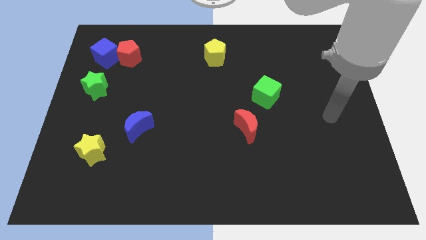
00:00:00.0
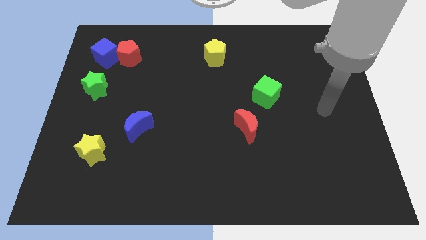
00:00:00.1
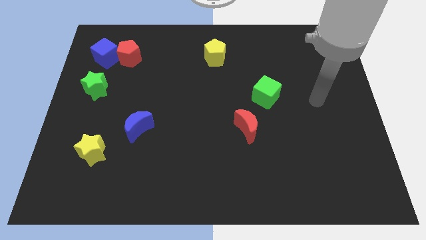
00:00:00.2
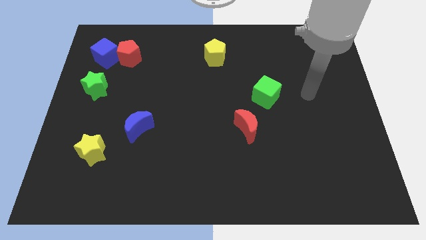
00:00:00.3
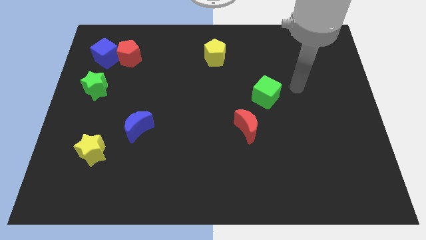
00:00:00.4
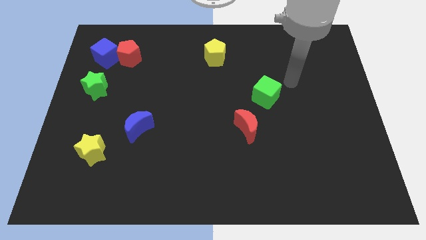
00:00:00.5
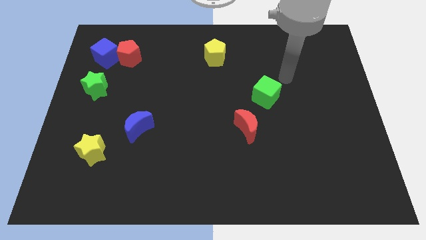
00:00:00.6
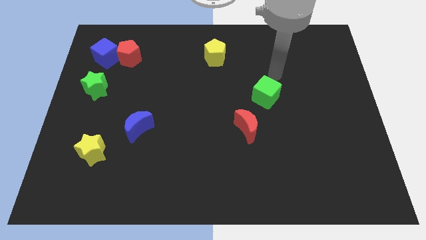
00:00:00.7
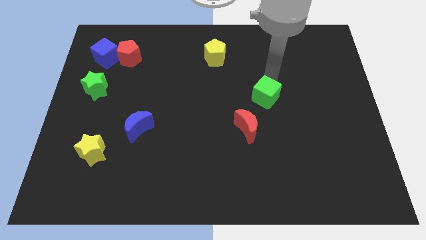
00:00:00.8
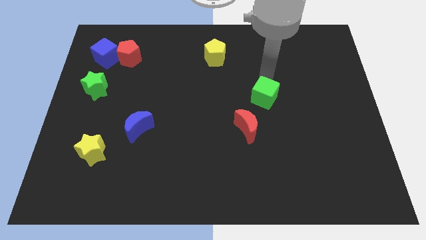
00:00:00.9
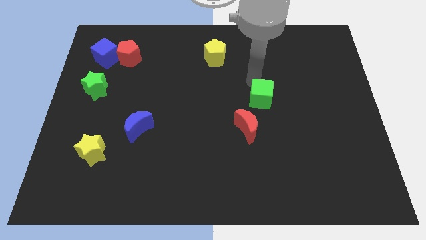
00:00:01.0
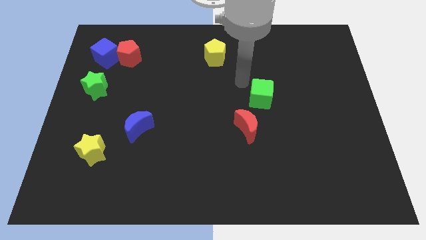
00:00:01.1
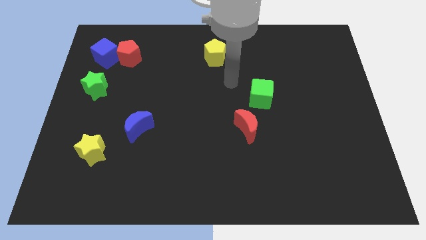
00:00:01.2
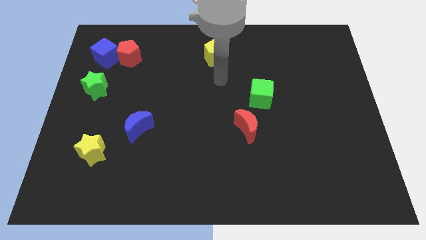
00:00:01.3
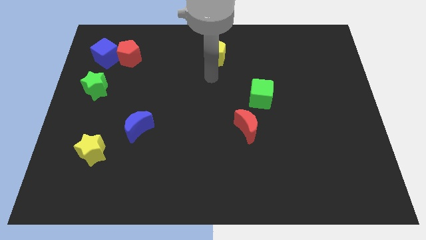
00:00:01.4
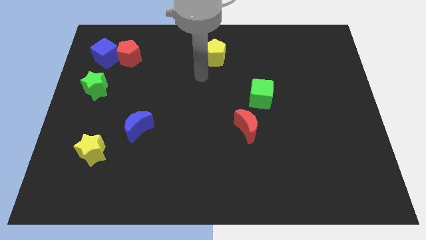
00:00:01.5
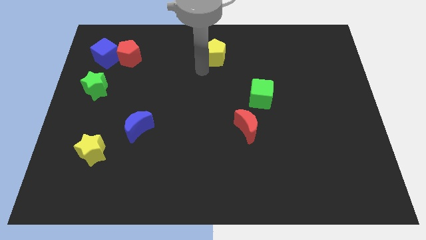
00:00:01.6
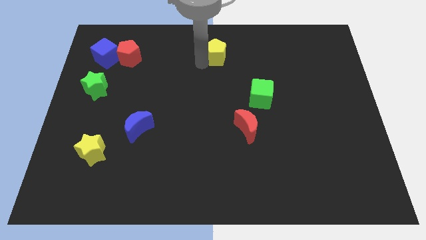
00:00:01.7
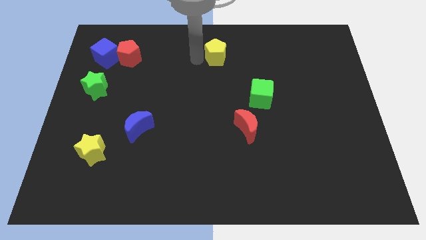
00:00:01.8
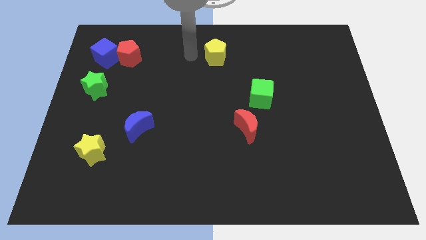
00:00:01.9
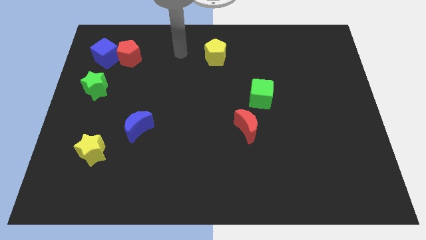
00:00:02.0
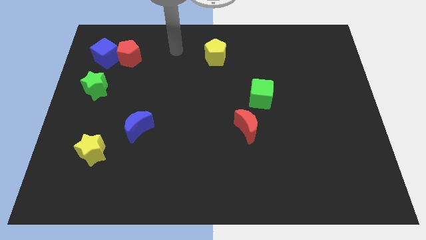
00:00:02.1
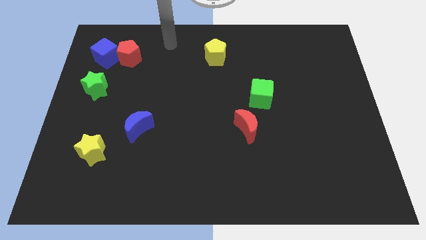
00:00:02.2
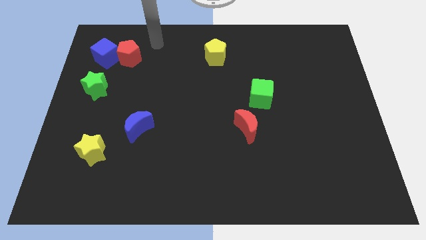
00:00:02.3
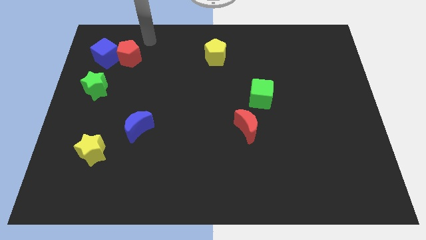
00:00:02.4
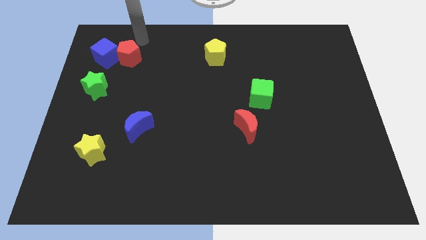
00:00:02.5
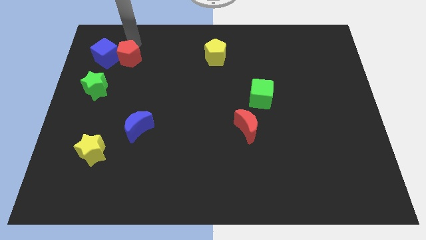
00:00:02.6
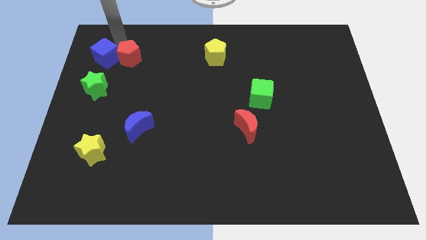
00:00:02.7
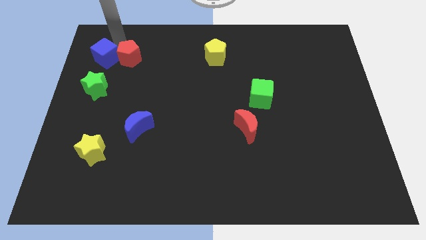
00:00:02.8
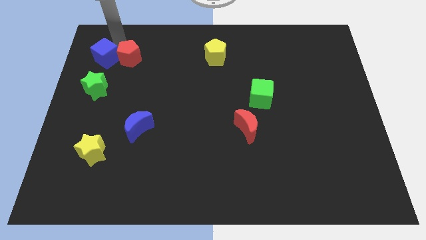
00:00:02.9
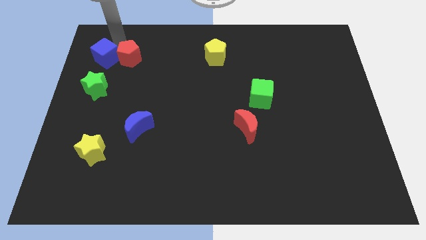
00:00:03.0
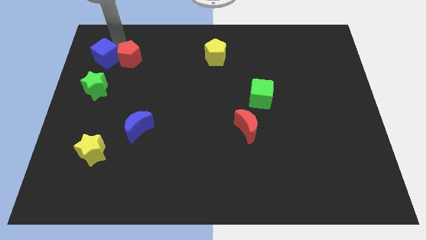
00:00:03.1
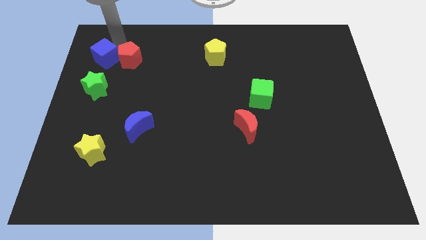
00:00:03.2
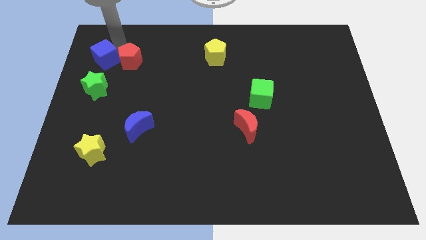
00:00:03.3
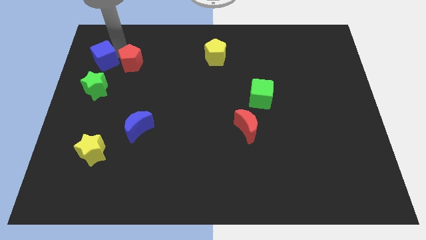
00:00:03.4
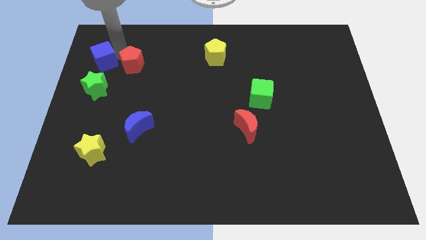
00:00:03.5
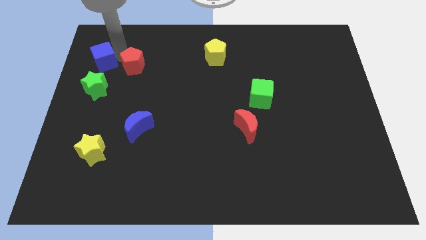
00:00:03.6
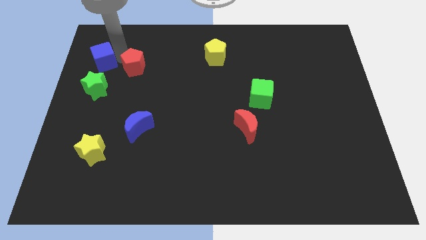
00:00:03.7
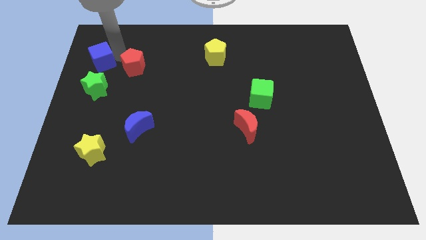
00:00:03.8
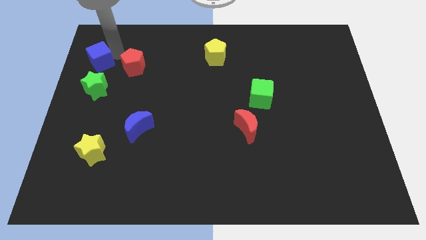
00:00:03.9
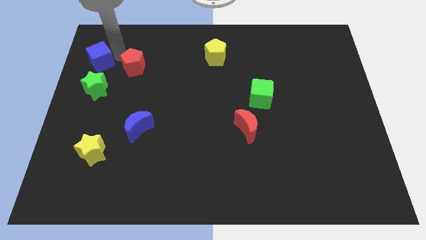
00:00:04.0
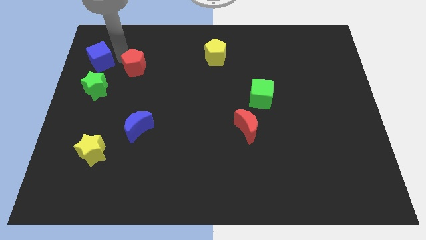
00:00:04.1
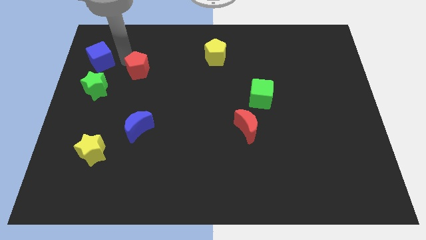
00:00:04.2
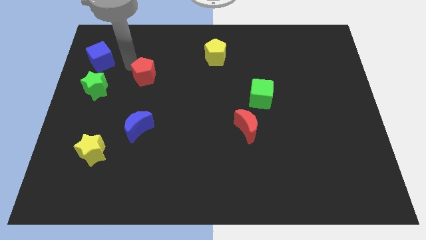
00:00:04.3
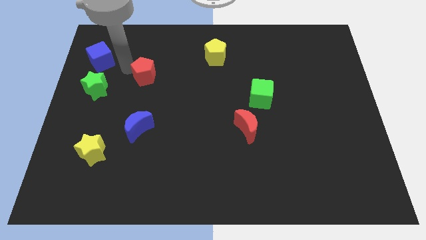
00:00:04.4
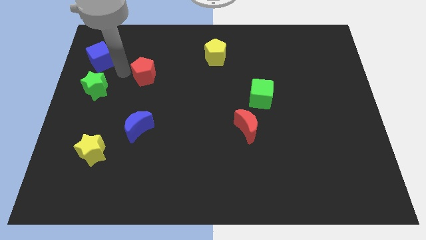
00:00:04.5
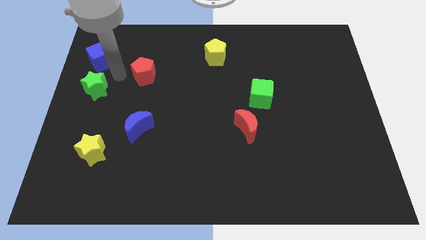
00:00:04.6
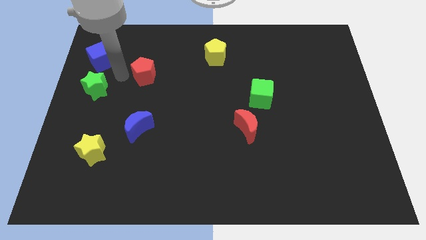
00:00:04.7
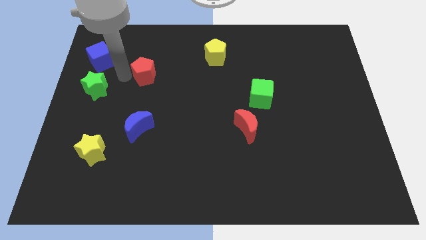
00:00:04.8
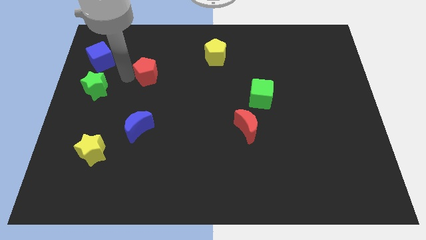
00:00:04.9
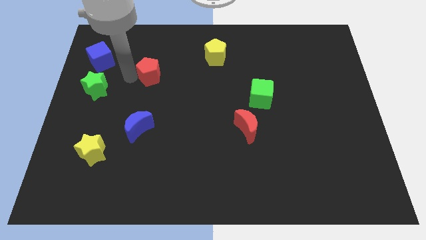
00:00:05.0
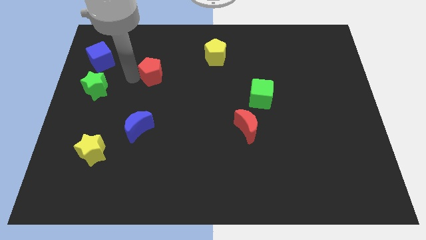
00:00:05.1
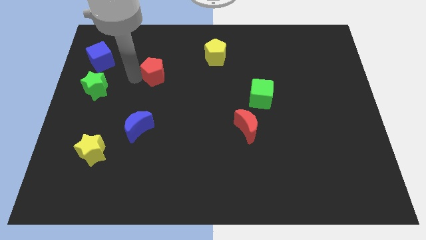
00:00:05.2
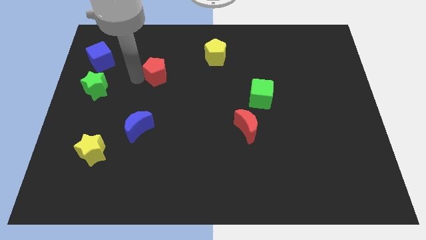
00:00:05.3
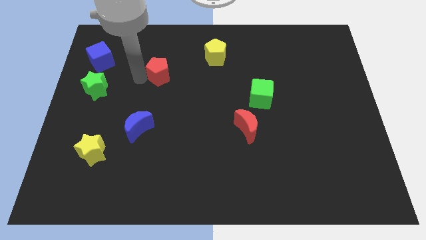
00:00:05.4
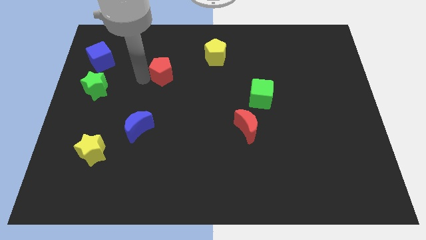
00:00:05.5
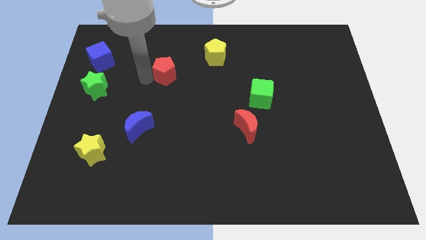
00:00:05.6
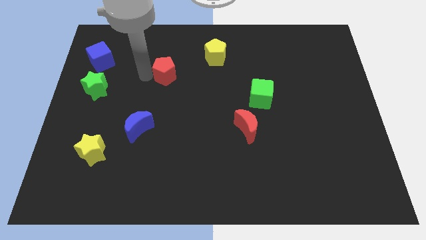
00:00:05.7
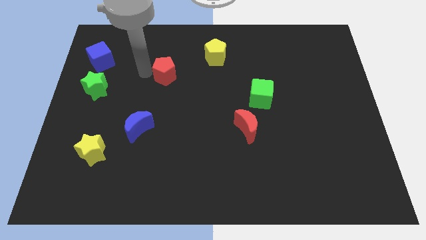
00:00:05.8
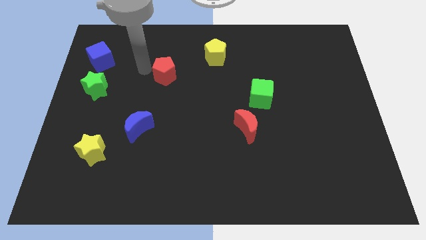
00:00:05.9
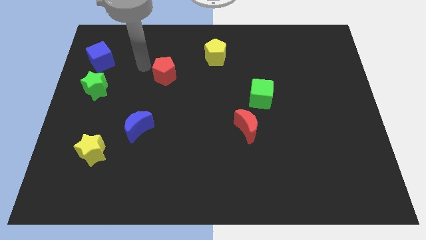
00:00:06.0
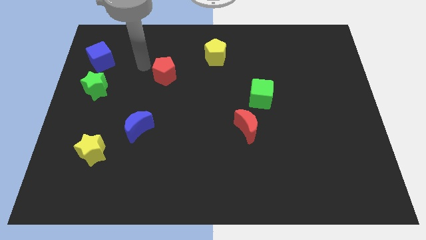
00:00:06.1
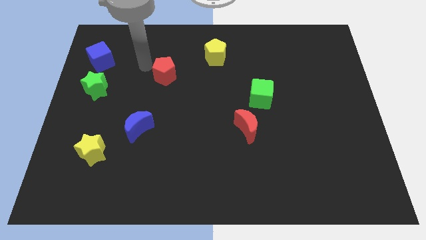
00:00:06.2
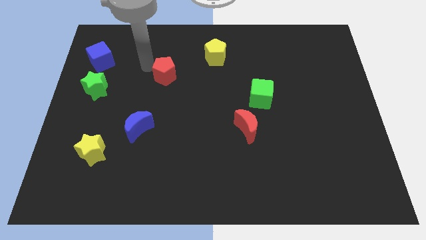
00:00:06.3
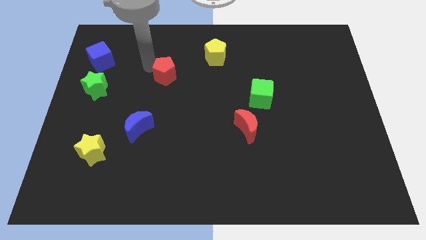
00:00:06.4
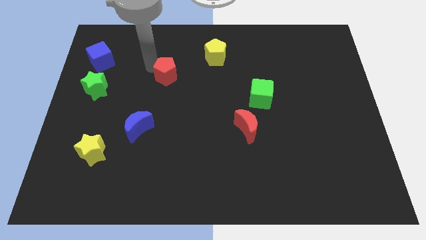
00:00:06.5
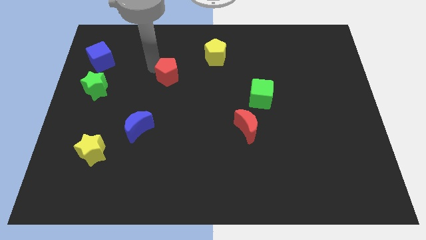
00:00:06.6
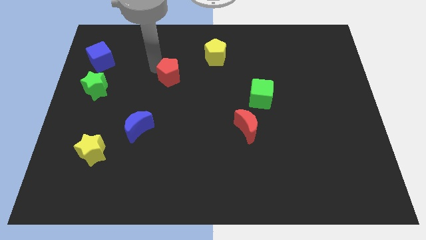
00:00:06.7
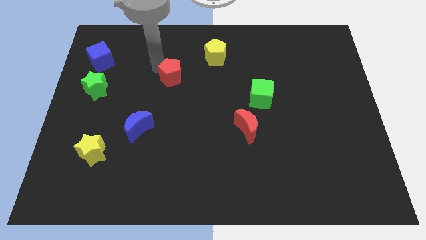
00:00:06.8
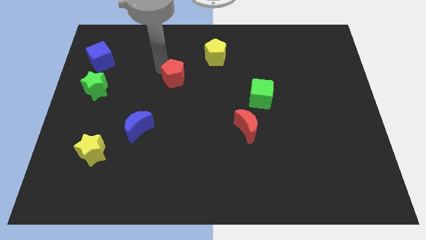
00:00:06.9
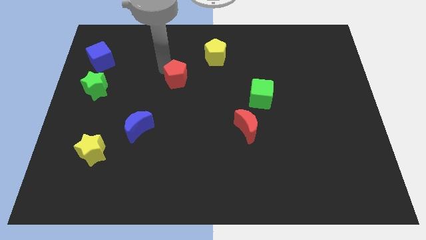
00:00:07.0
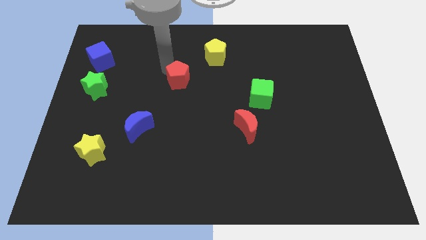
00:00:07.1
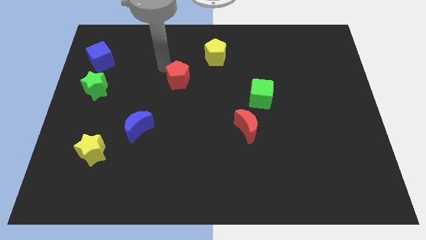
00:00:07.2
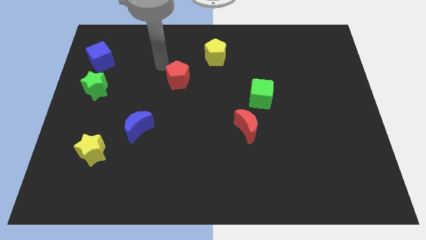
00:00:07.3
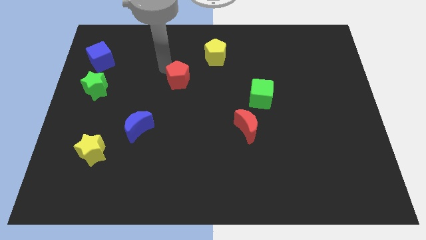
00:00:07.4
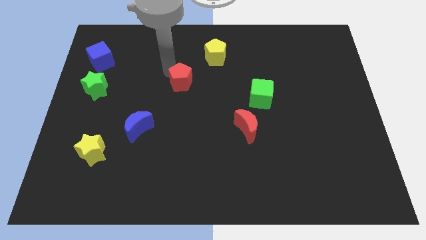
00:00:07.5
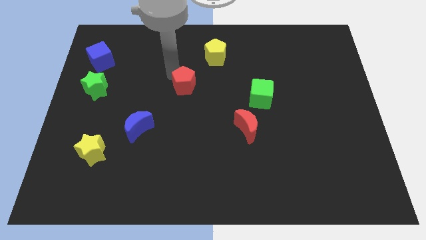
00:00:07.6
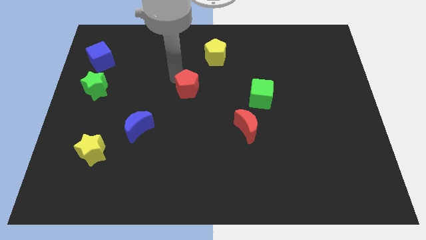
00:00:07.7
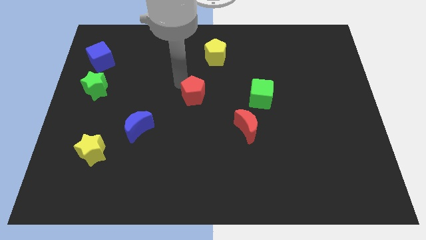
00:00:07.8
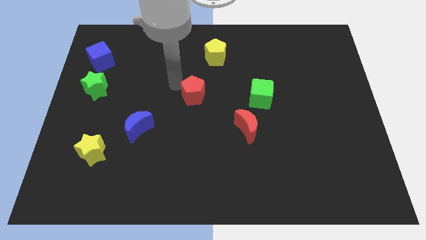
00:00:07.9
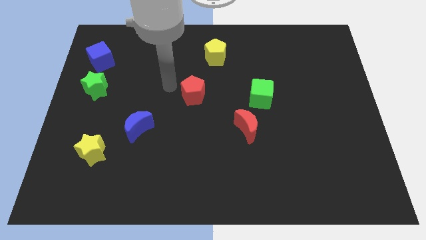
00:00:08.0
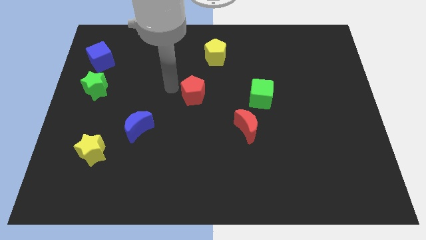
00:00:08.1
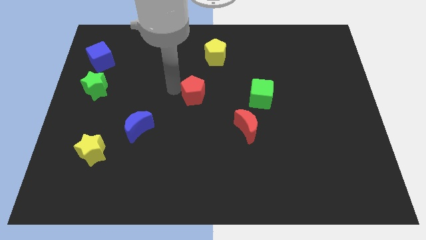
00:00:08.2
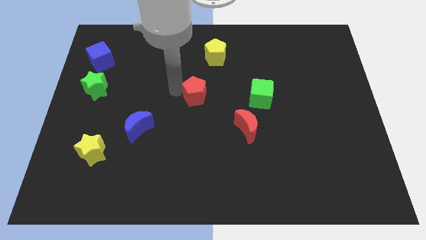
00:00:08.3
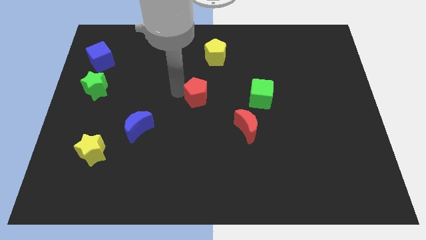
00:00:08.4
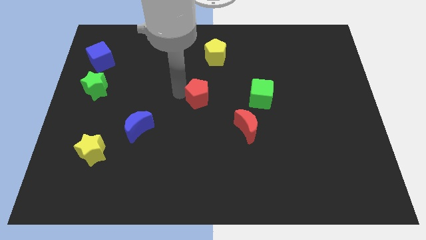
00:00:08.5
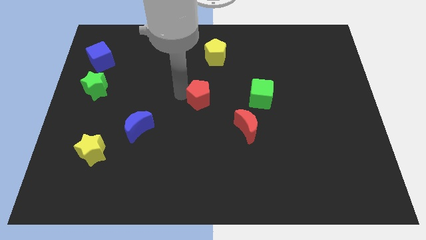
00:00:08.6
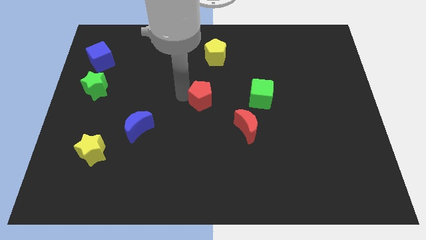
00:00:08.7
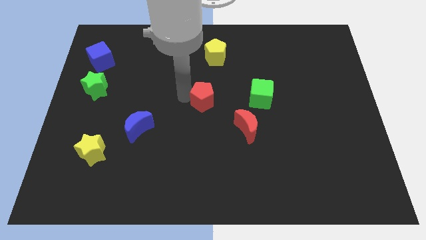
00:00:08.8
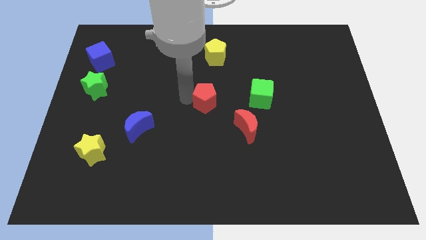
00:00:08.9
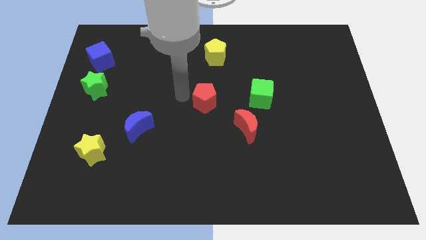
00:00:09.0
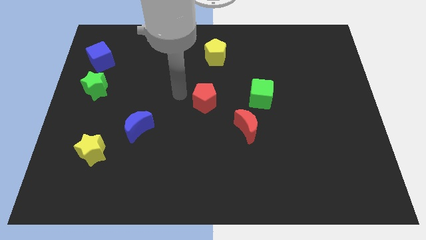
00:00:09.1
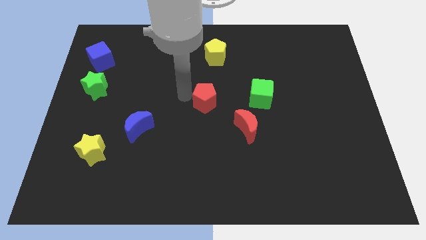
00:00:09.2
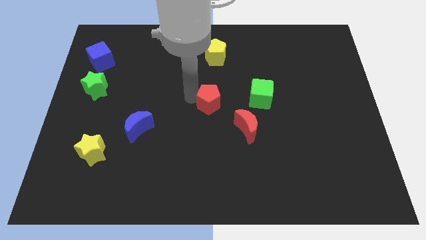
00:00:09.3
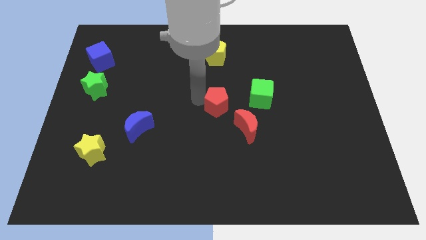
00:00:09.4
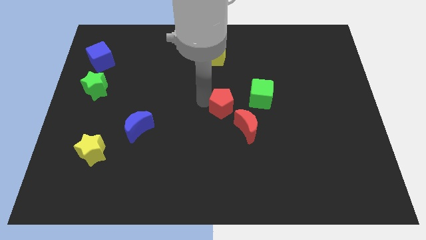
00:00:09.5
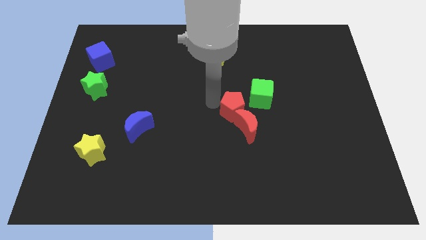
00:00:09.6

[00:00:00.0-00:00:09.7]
put the red pentagon towards the red moon
